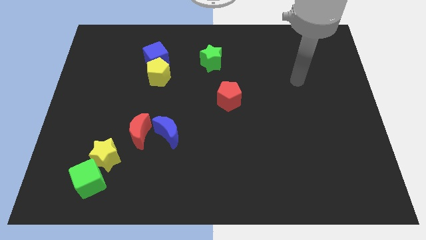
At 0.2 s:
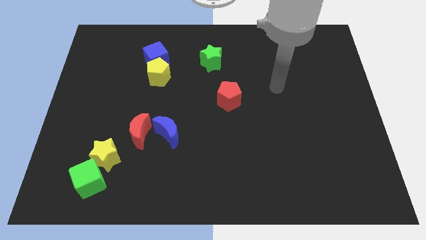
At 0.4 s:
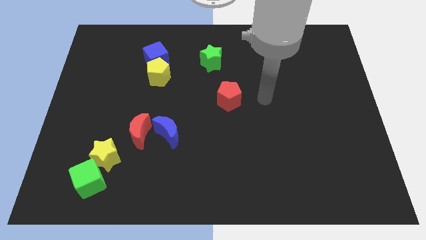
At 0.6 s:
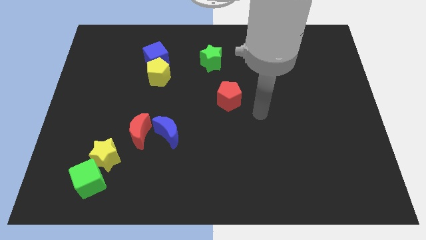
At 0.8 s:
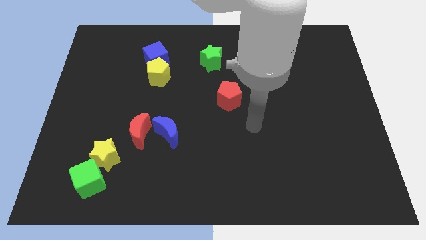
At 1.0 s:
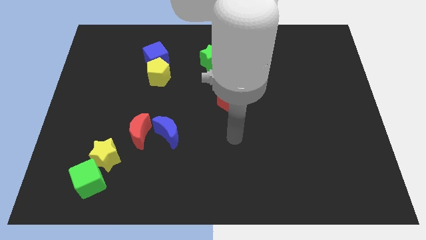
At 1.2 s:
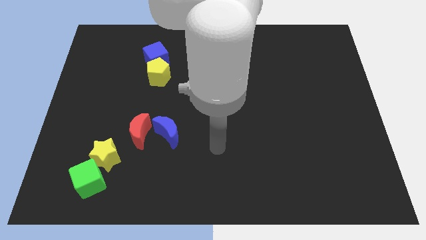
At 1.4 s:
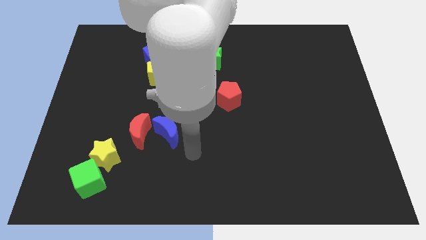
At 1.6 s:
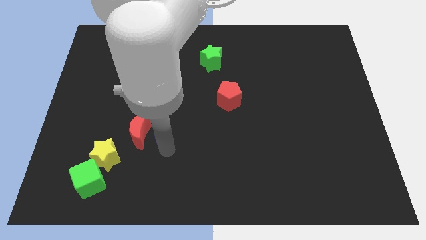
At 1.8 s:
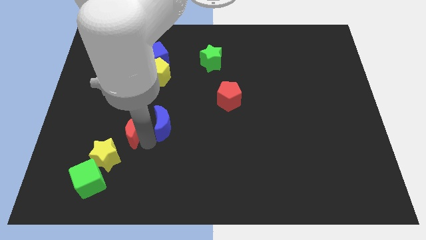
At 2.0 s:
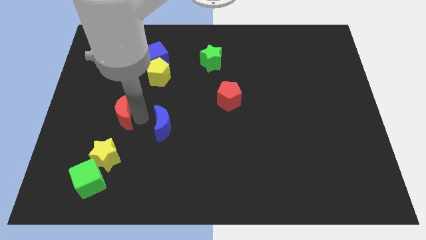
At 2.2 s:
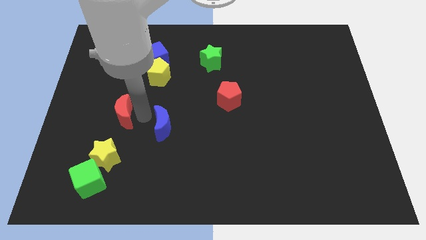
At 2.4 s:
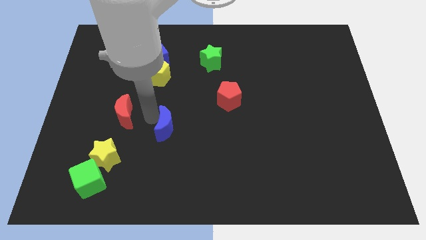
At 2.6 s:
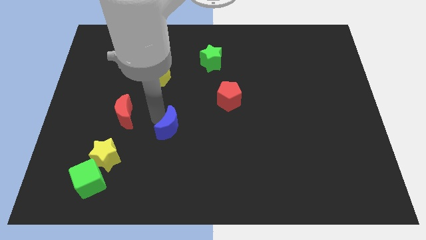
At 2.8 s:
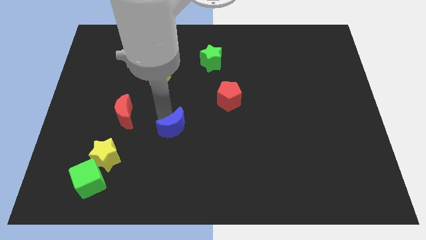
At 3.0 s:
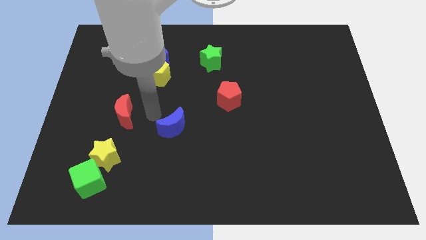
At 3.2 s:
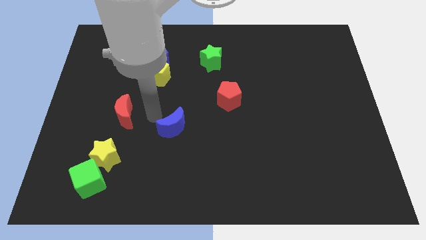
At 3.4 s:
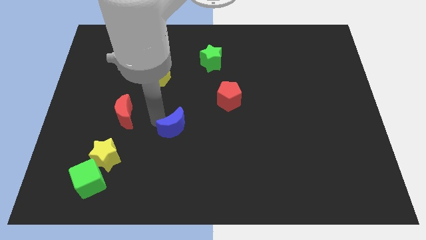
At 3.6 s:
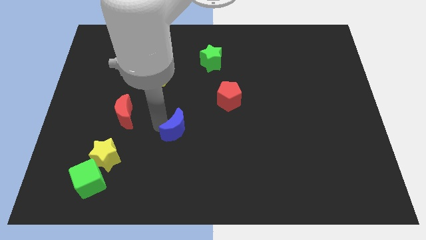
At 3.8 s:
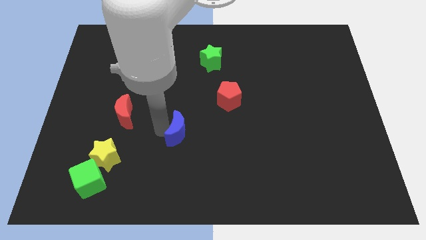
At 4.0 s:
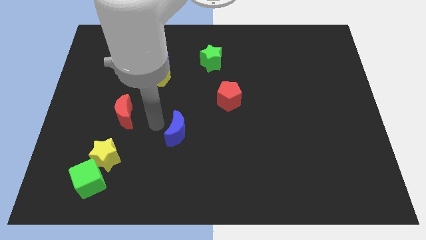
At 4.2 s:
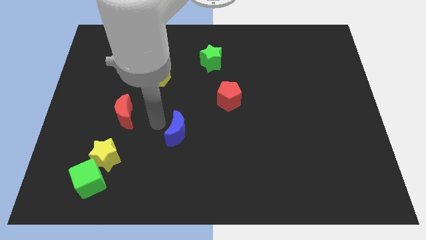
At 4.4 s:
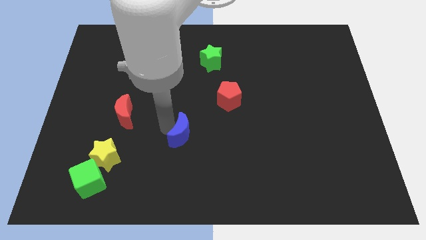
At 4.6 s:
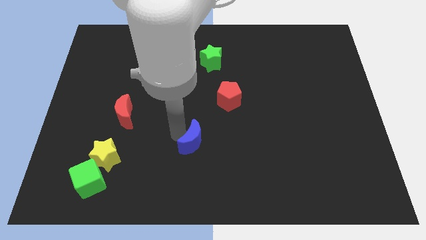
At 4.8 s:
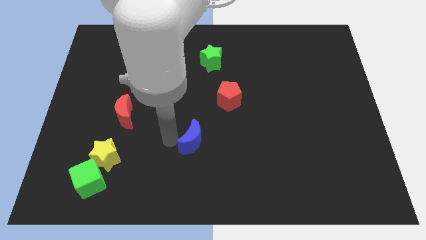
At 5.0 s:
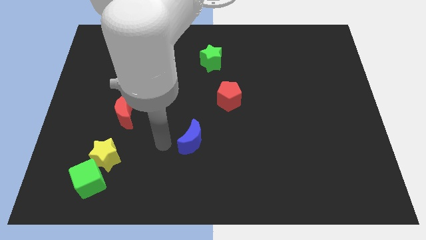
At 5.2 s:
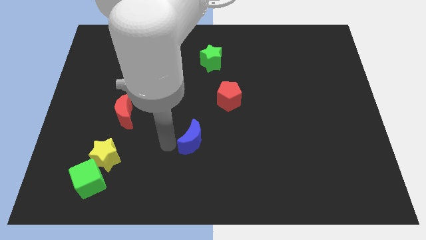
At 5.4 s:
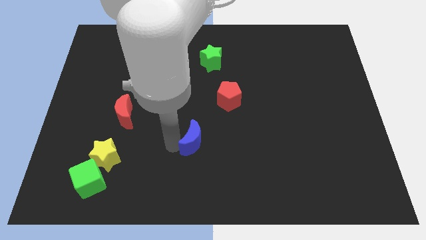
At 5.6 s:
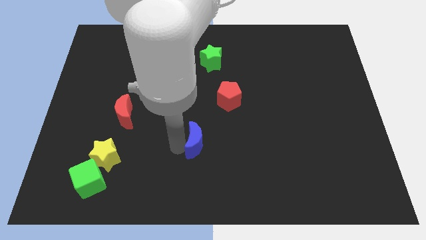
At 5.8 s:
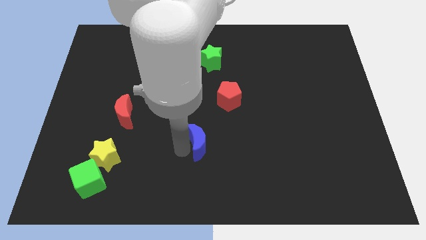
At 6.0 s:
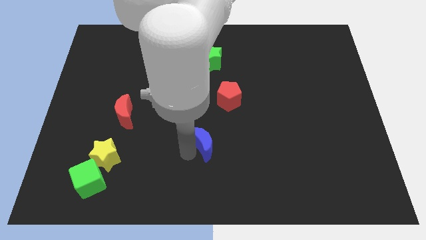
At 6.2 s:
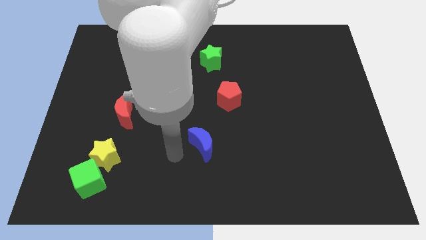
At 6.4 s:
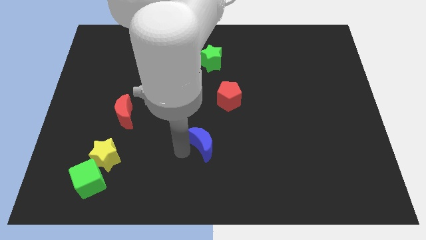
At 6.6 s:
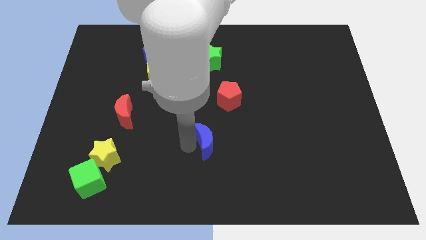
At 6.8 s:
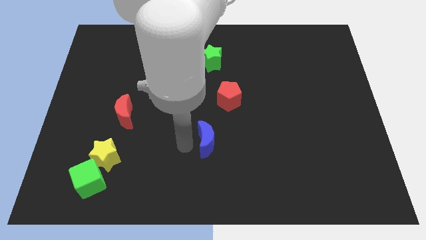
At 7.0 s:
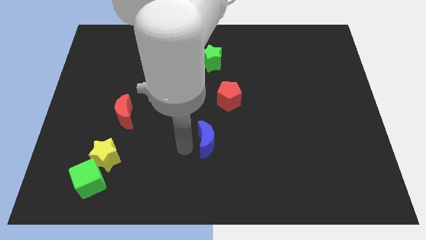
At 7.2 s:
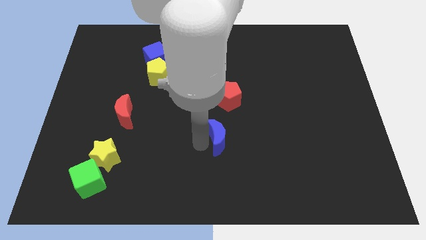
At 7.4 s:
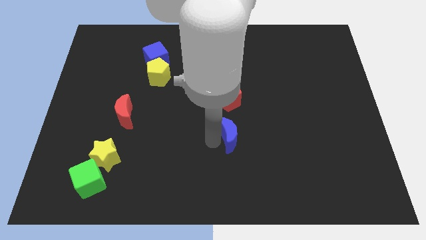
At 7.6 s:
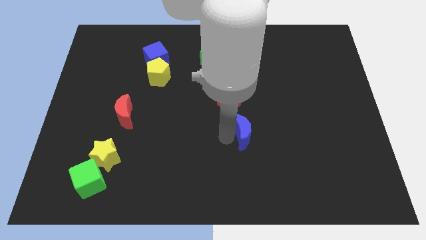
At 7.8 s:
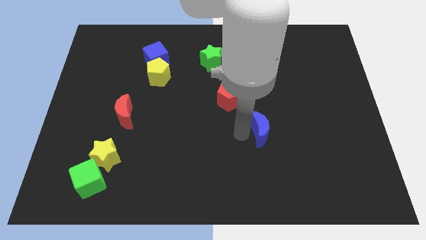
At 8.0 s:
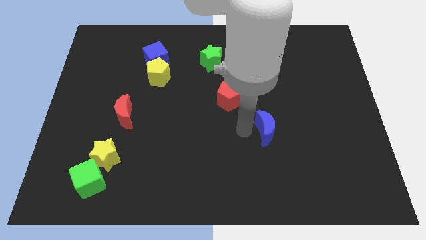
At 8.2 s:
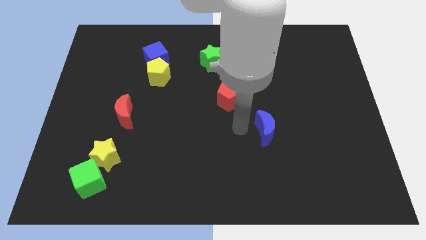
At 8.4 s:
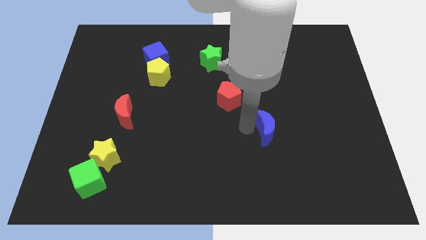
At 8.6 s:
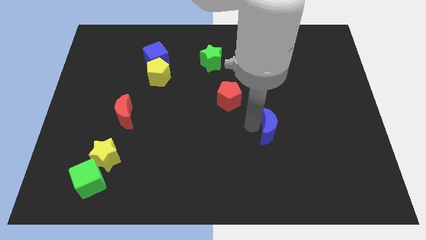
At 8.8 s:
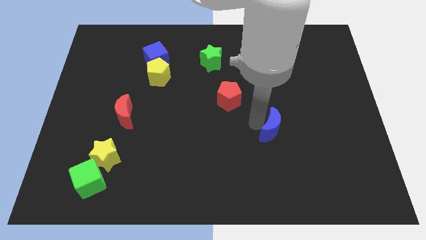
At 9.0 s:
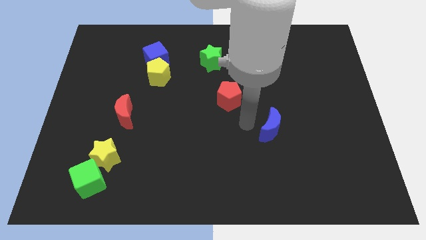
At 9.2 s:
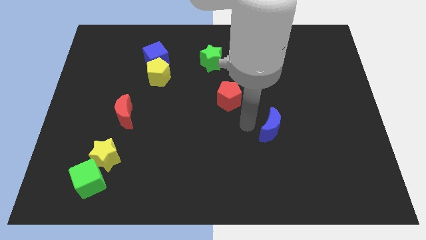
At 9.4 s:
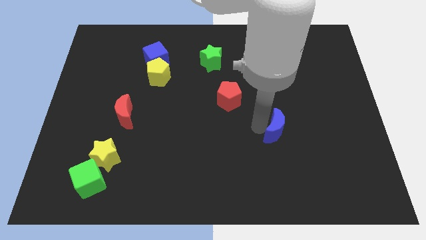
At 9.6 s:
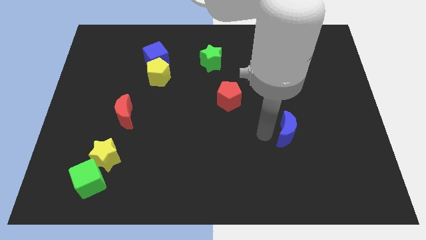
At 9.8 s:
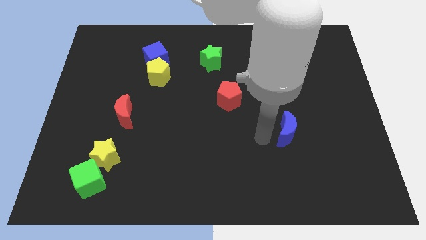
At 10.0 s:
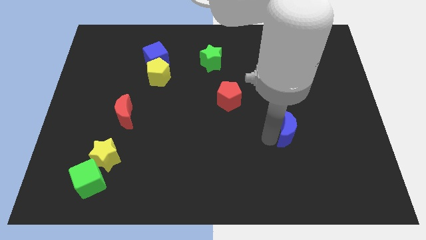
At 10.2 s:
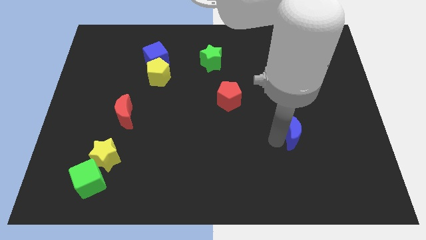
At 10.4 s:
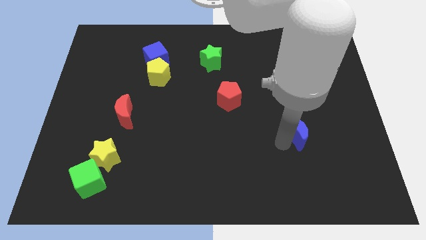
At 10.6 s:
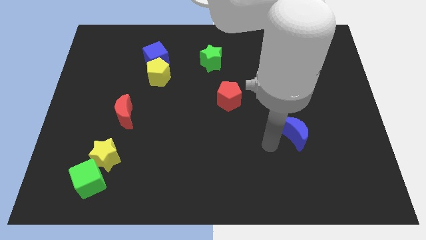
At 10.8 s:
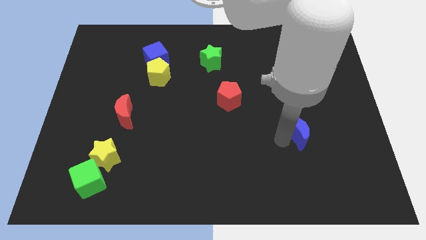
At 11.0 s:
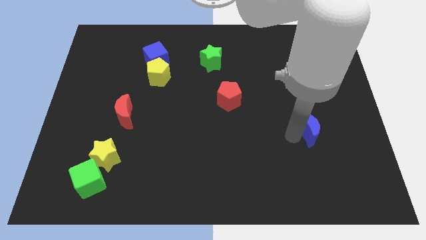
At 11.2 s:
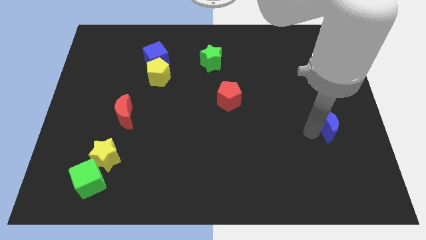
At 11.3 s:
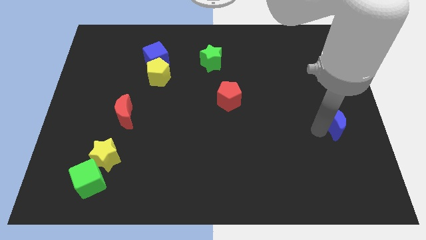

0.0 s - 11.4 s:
push the blue moon to the right side

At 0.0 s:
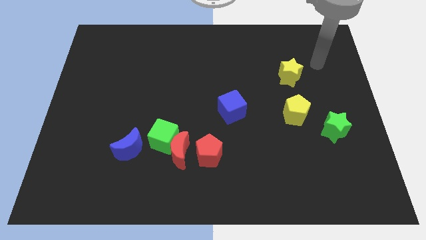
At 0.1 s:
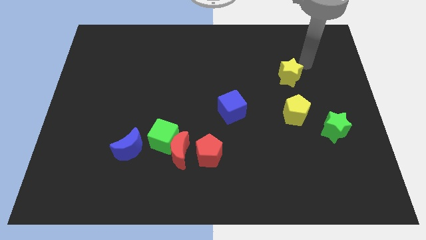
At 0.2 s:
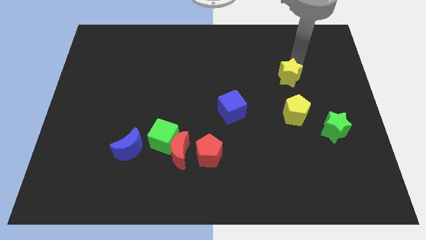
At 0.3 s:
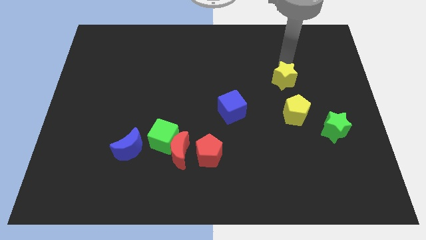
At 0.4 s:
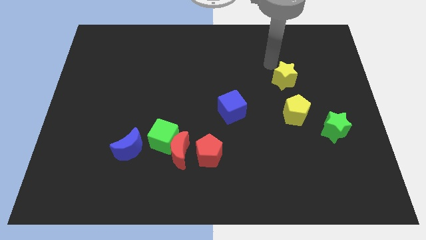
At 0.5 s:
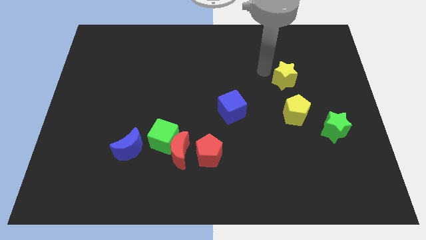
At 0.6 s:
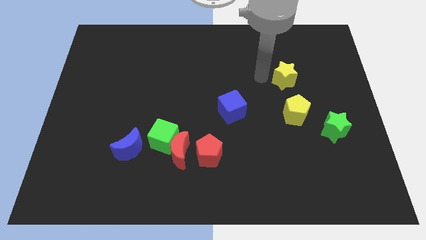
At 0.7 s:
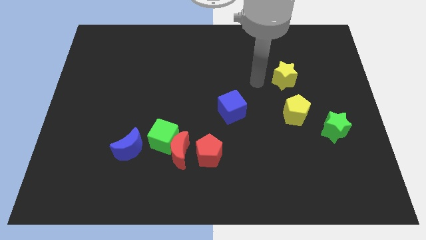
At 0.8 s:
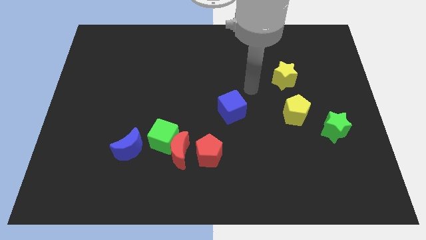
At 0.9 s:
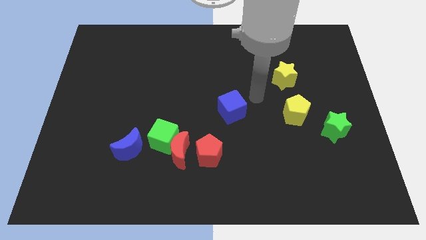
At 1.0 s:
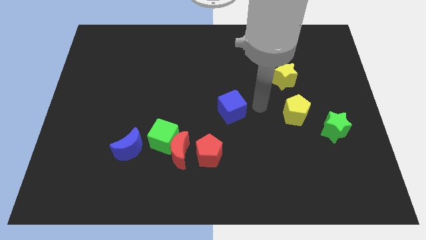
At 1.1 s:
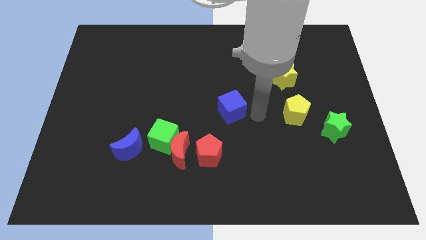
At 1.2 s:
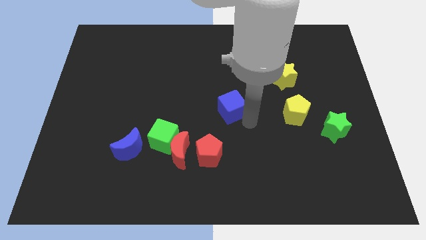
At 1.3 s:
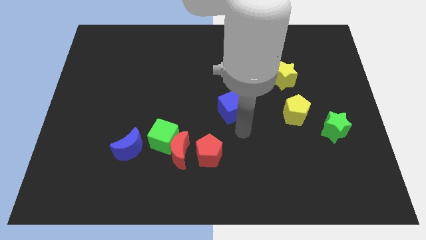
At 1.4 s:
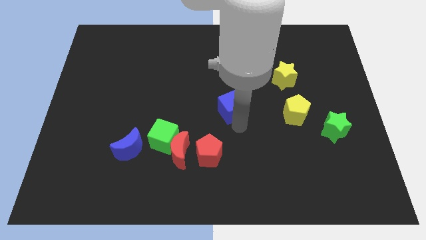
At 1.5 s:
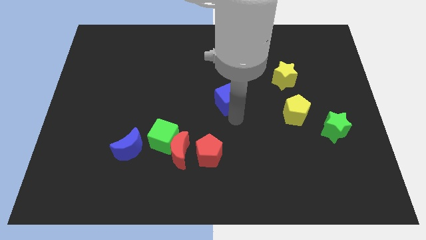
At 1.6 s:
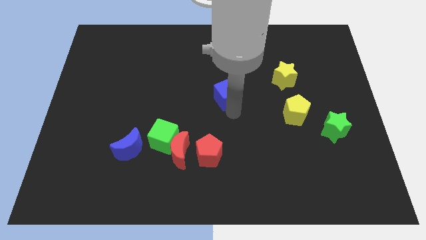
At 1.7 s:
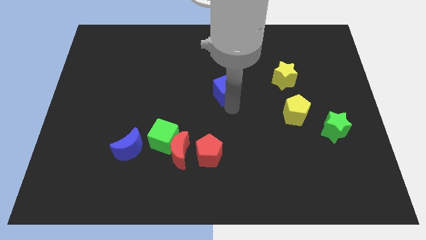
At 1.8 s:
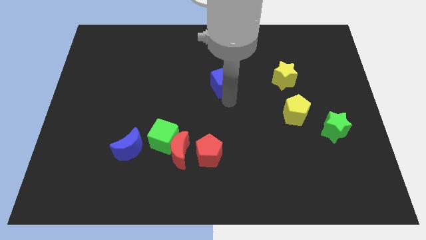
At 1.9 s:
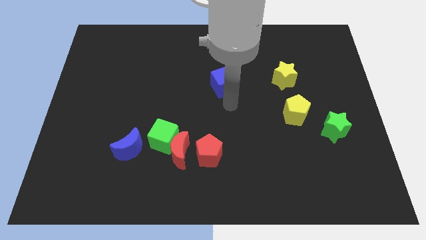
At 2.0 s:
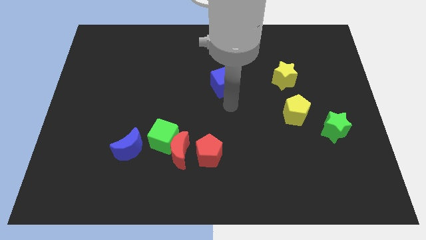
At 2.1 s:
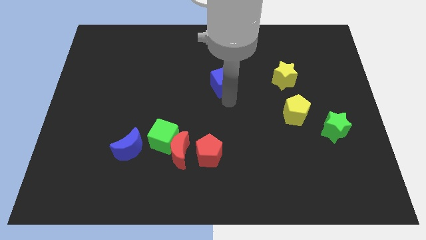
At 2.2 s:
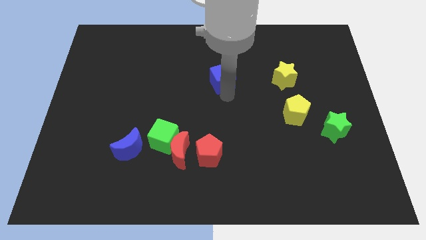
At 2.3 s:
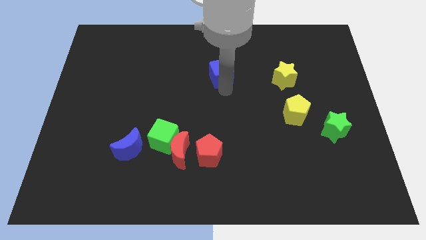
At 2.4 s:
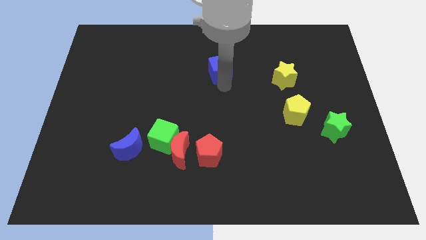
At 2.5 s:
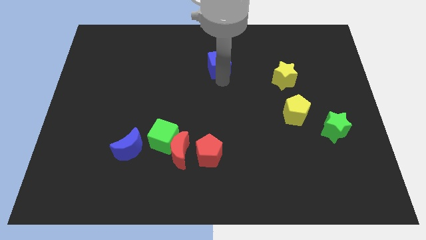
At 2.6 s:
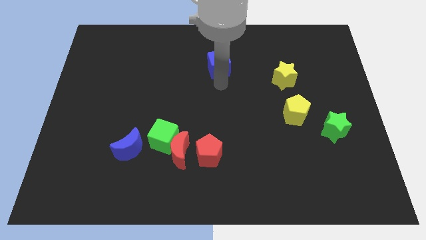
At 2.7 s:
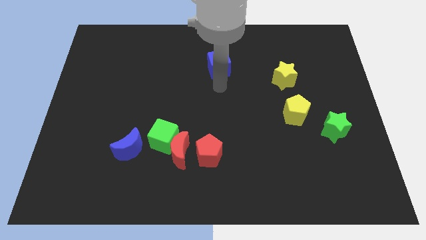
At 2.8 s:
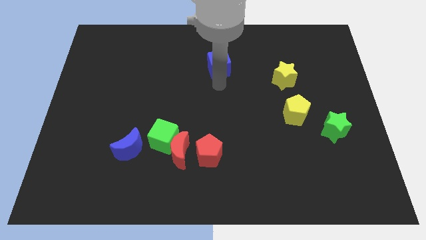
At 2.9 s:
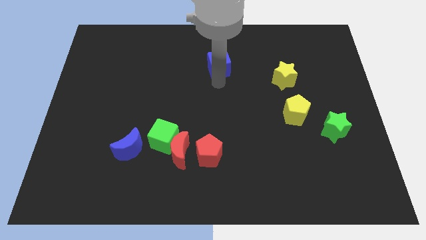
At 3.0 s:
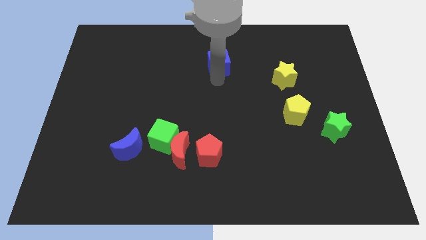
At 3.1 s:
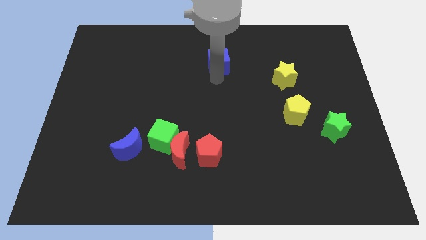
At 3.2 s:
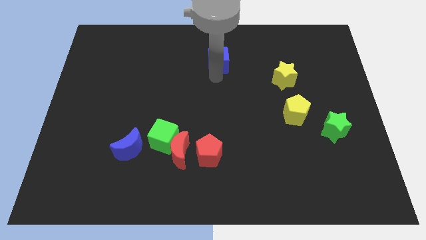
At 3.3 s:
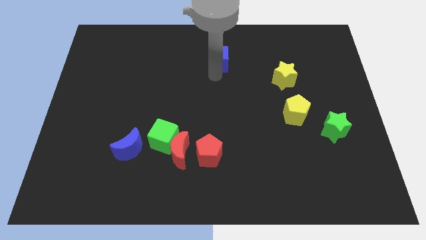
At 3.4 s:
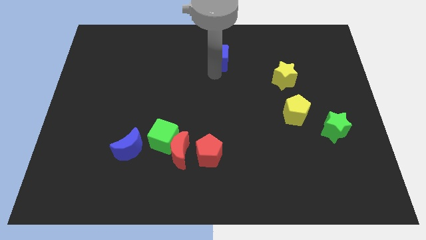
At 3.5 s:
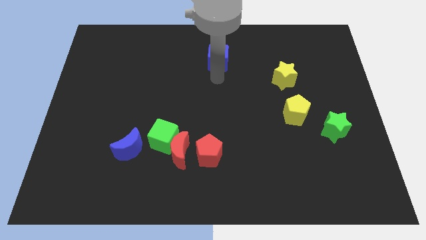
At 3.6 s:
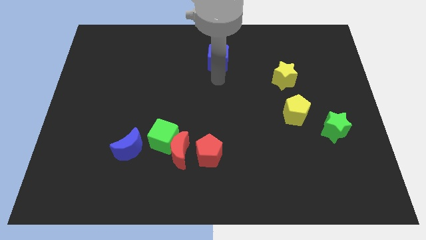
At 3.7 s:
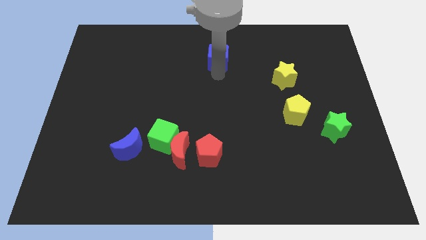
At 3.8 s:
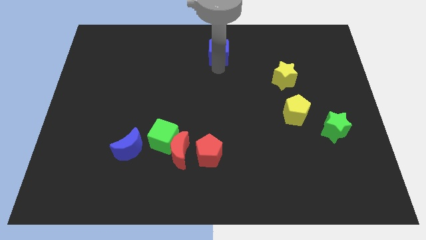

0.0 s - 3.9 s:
push the blue cube to the top
